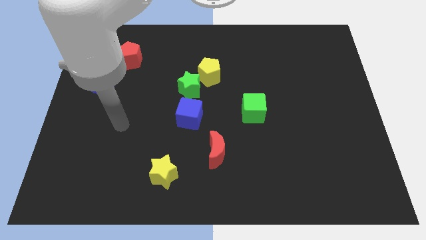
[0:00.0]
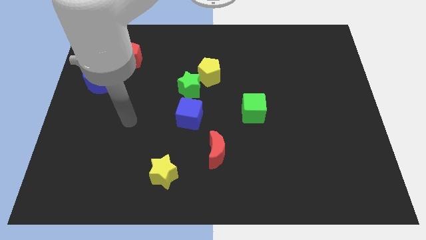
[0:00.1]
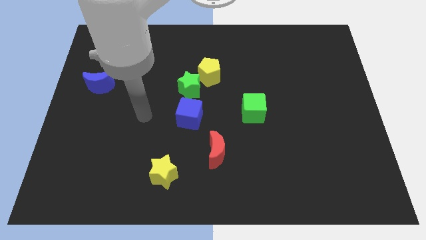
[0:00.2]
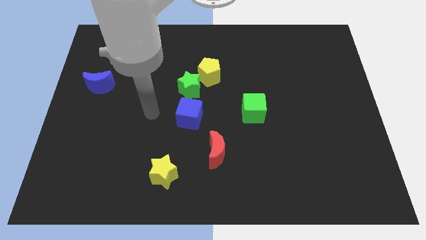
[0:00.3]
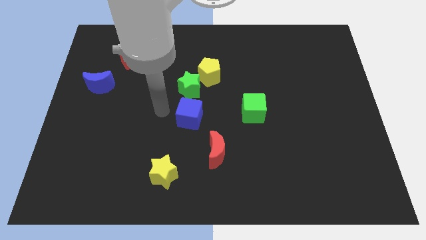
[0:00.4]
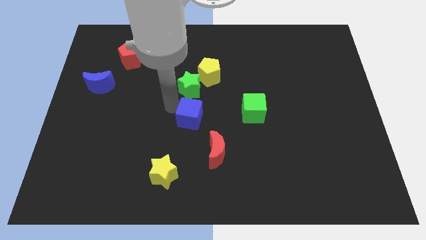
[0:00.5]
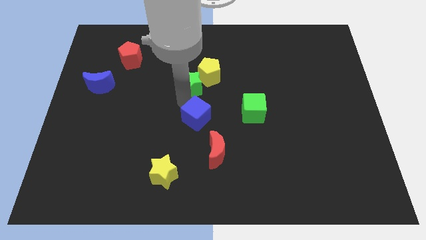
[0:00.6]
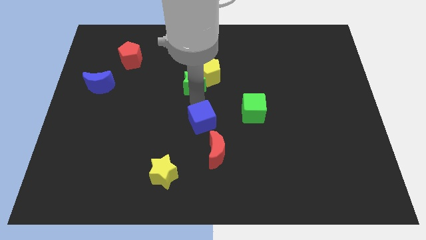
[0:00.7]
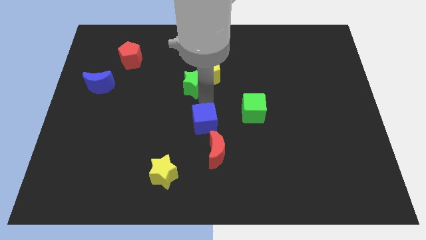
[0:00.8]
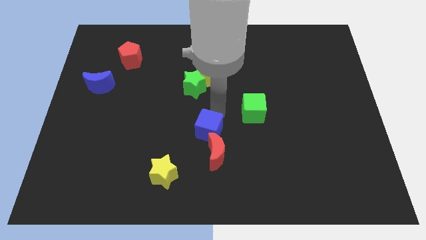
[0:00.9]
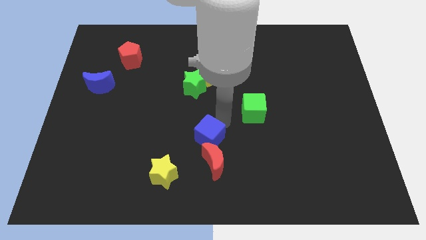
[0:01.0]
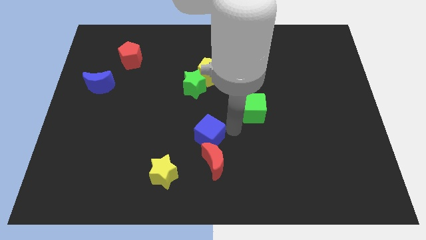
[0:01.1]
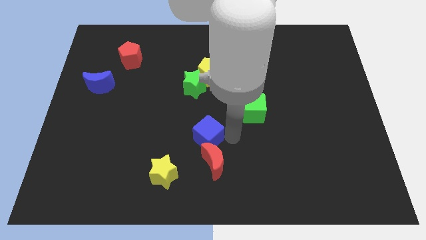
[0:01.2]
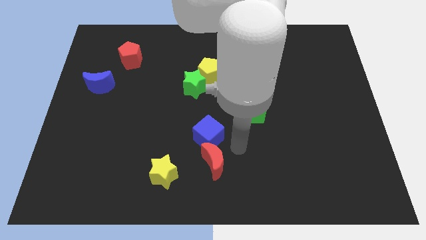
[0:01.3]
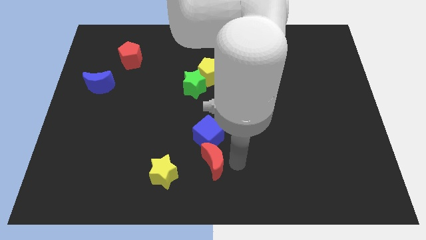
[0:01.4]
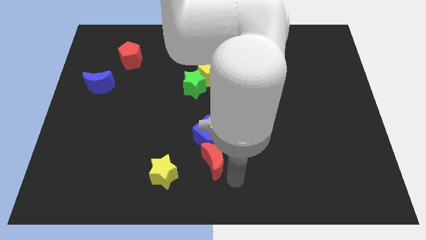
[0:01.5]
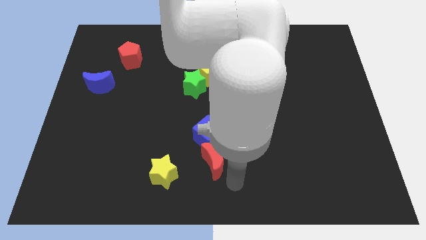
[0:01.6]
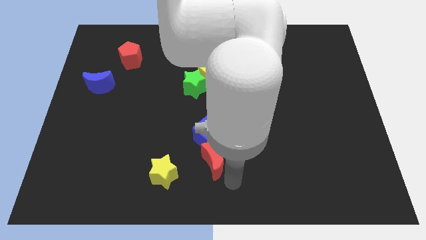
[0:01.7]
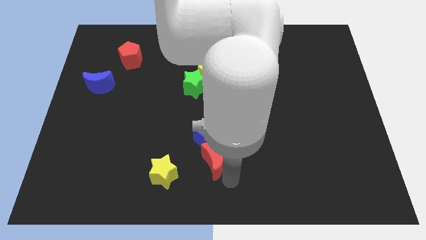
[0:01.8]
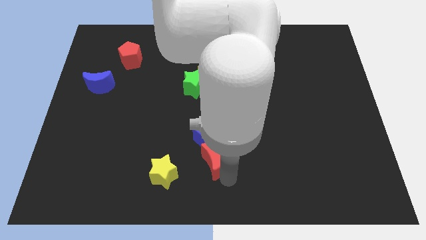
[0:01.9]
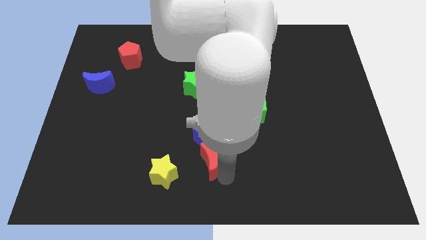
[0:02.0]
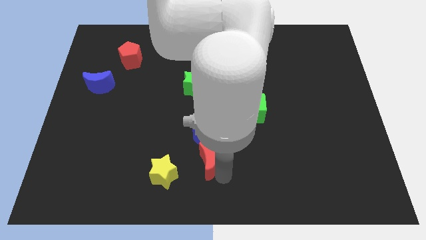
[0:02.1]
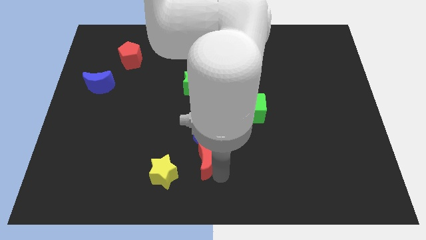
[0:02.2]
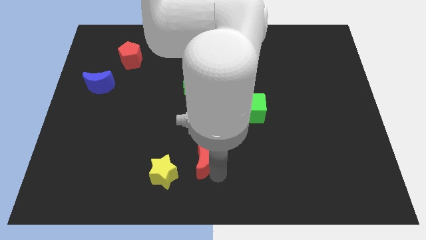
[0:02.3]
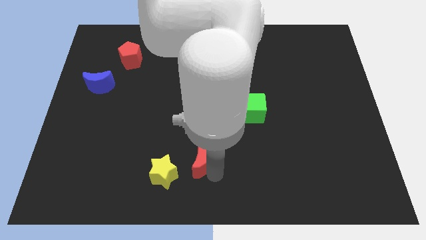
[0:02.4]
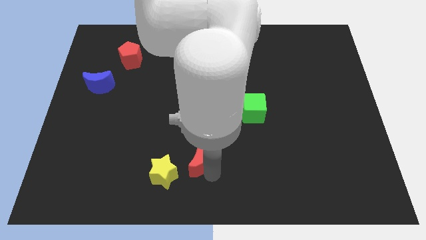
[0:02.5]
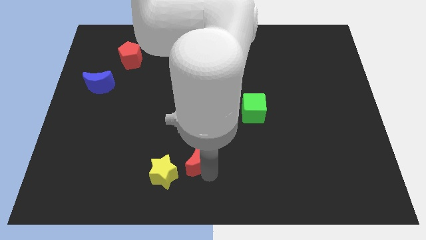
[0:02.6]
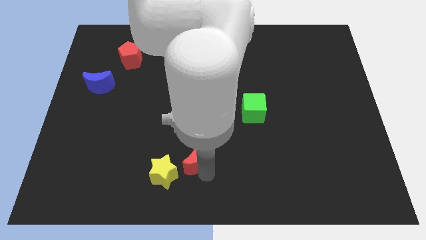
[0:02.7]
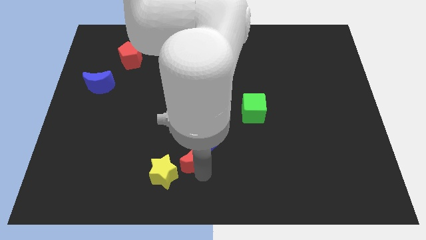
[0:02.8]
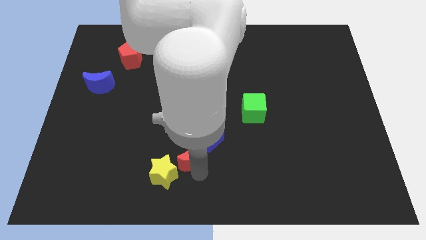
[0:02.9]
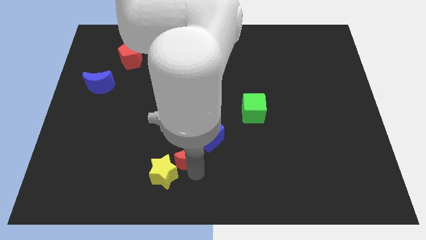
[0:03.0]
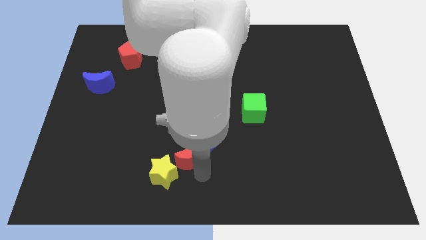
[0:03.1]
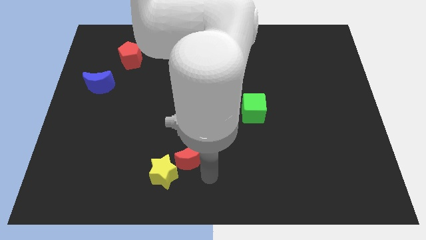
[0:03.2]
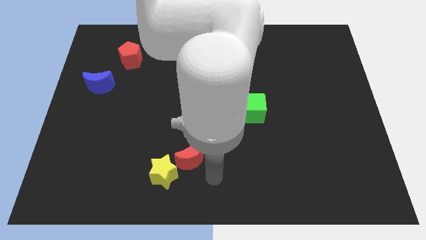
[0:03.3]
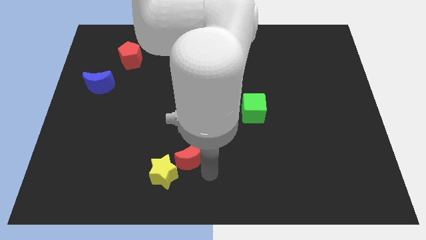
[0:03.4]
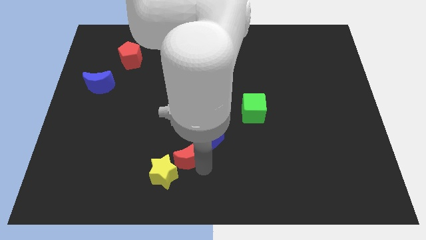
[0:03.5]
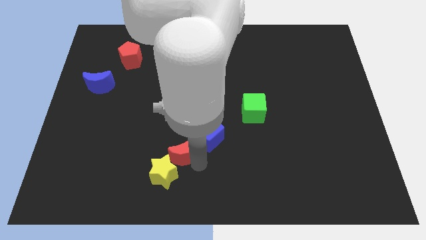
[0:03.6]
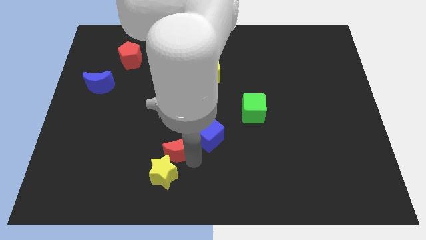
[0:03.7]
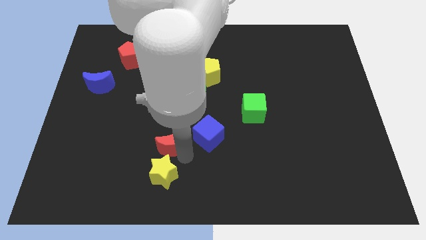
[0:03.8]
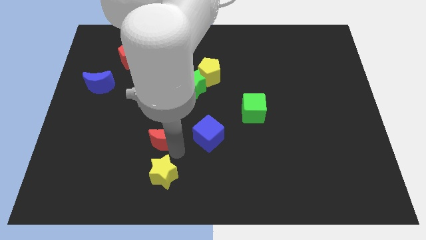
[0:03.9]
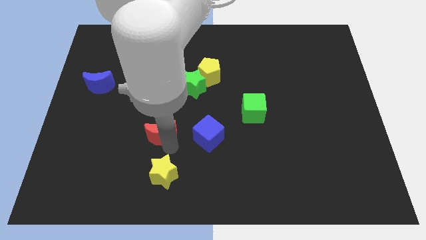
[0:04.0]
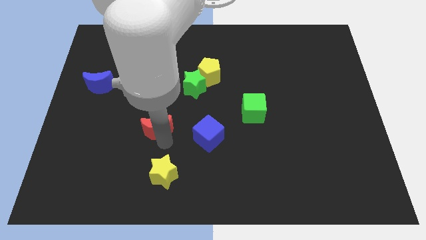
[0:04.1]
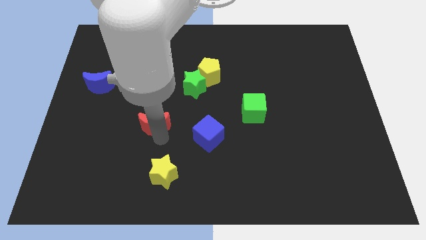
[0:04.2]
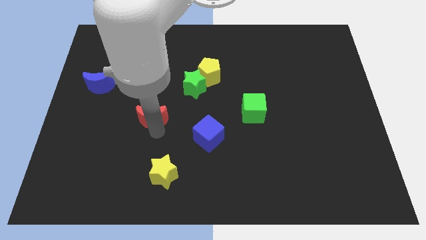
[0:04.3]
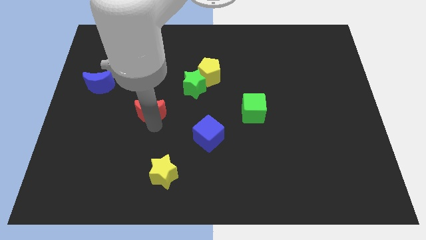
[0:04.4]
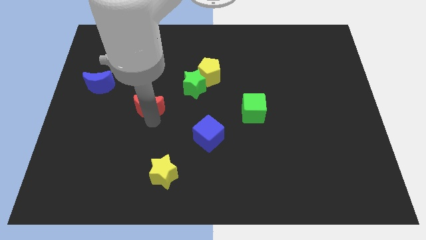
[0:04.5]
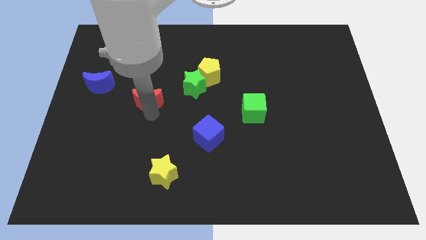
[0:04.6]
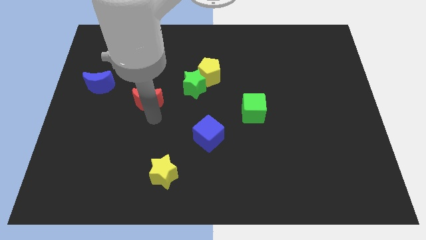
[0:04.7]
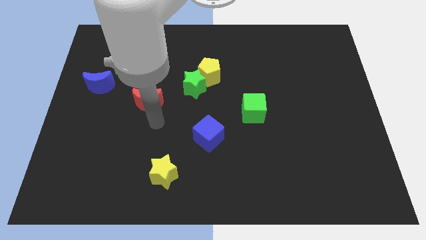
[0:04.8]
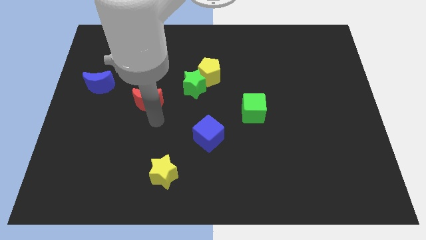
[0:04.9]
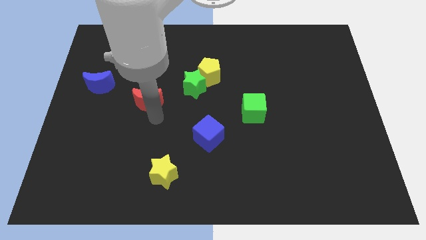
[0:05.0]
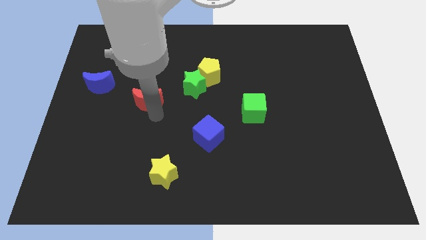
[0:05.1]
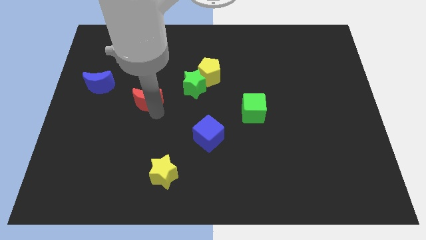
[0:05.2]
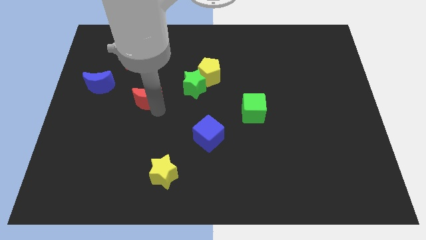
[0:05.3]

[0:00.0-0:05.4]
push the red moon to the right side of the blue moon

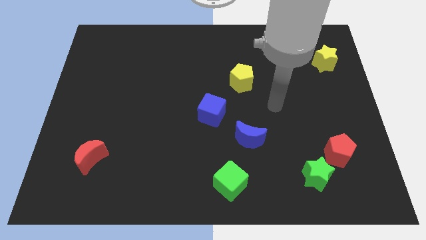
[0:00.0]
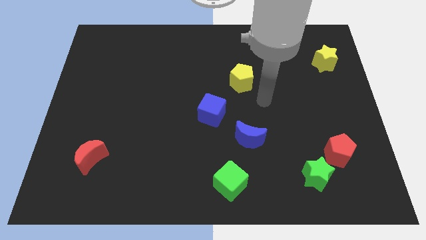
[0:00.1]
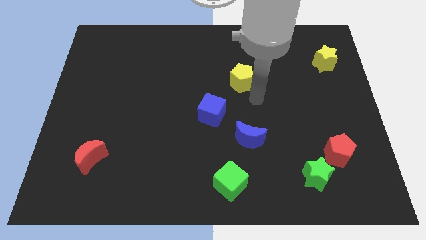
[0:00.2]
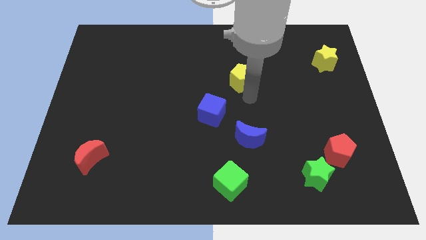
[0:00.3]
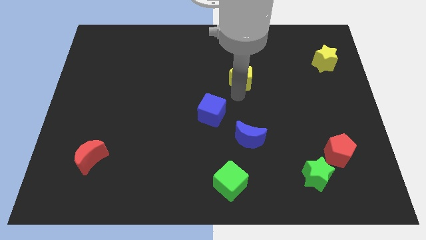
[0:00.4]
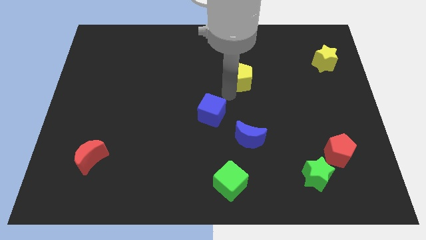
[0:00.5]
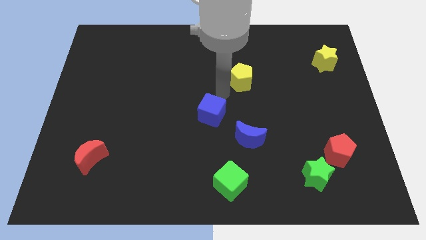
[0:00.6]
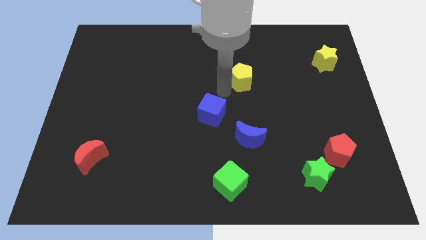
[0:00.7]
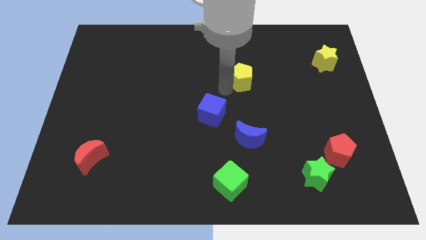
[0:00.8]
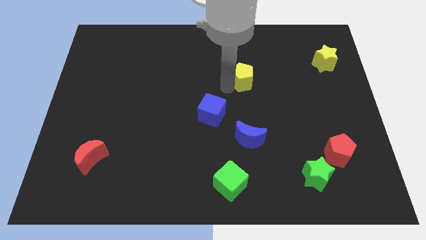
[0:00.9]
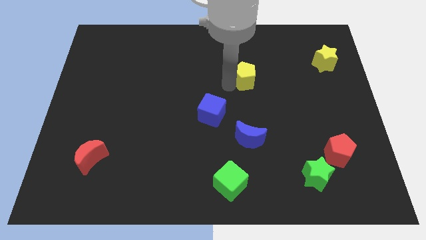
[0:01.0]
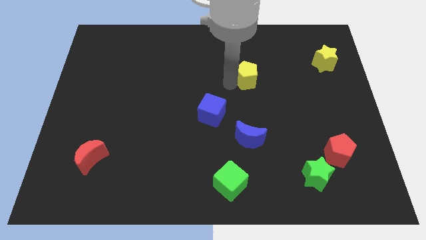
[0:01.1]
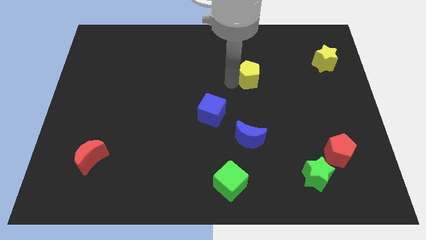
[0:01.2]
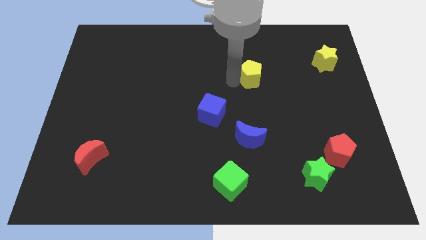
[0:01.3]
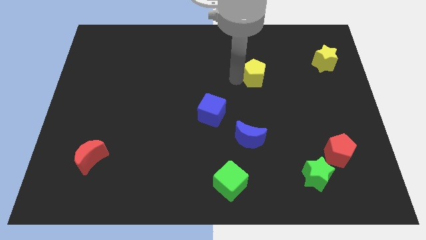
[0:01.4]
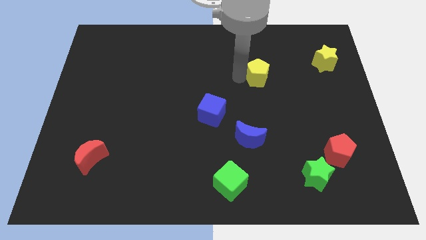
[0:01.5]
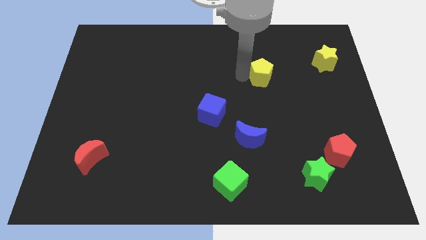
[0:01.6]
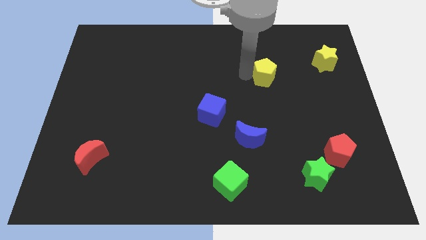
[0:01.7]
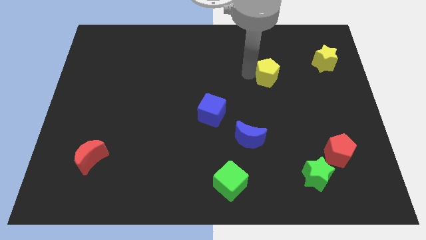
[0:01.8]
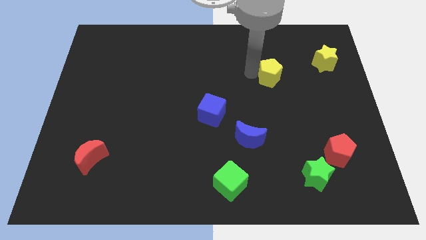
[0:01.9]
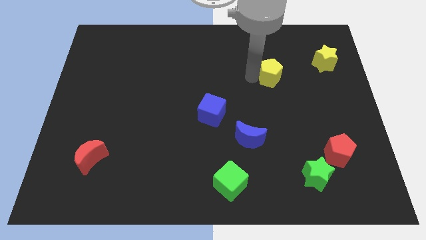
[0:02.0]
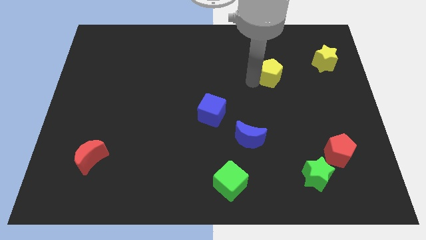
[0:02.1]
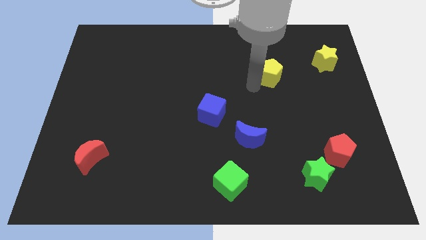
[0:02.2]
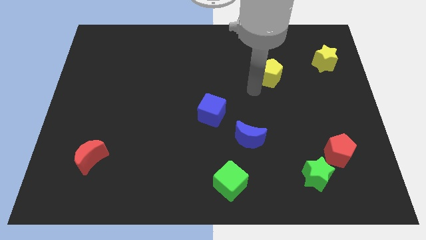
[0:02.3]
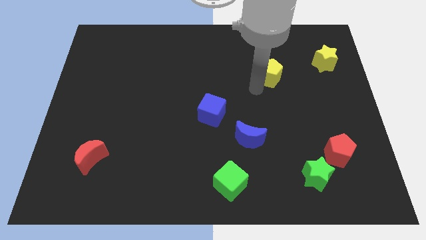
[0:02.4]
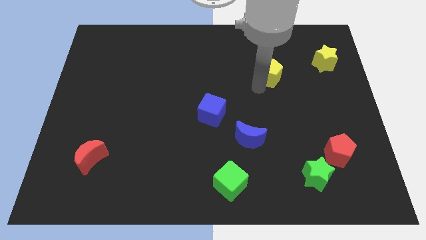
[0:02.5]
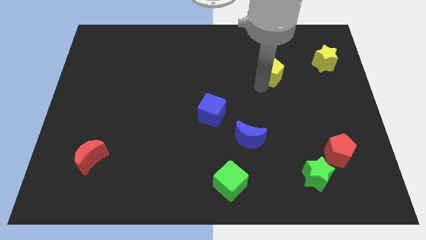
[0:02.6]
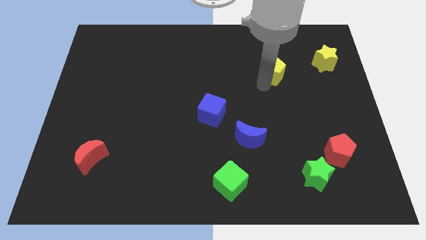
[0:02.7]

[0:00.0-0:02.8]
slide the yellow pentagon to the left side of the yellow star
